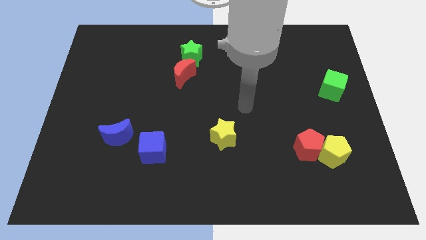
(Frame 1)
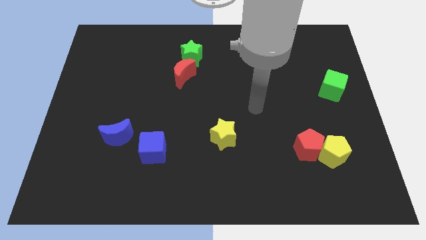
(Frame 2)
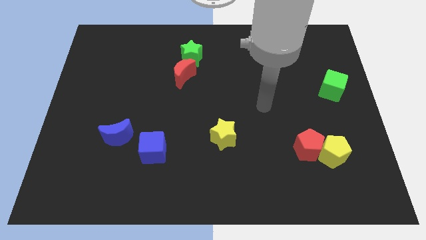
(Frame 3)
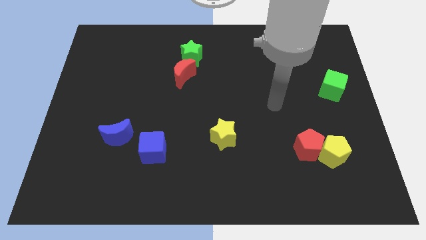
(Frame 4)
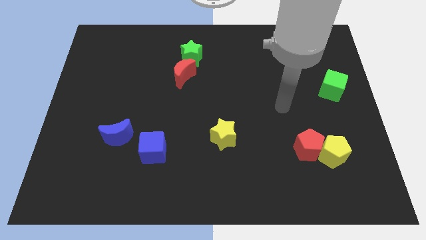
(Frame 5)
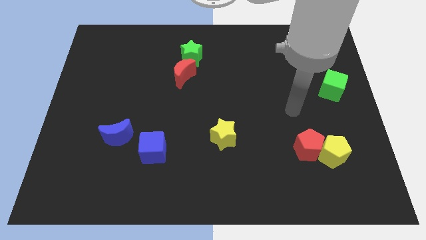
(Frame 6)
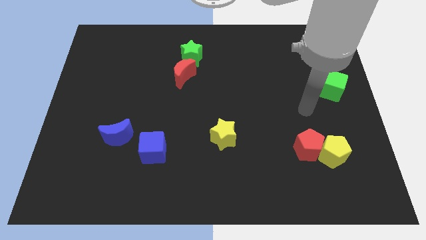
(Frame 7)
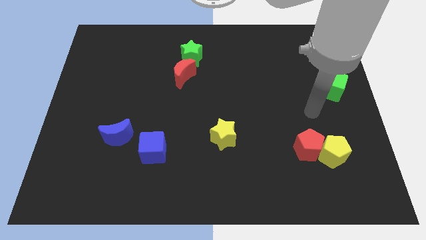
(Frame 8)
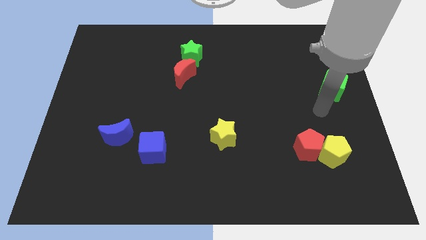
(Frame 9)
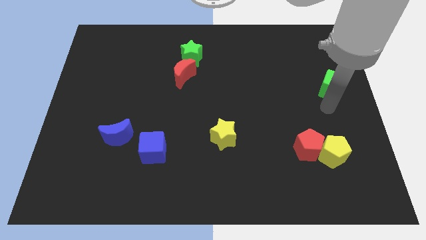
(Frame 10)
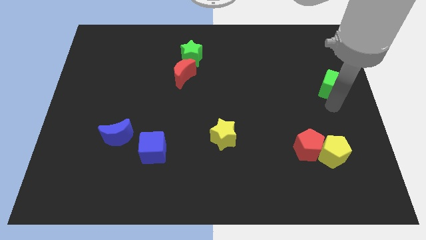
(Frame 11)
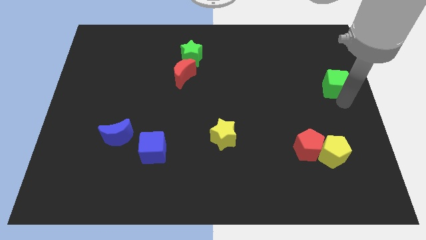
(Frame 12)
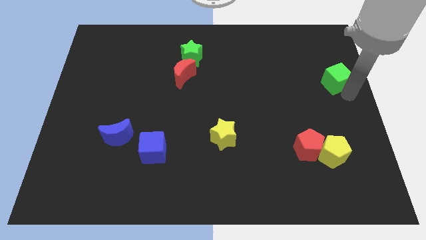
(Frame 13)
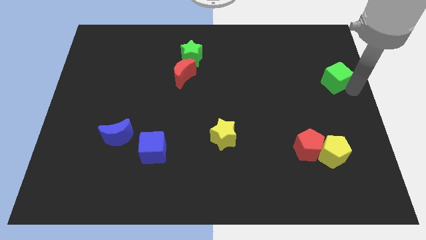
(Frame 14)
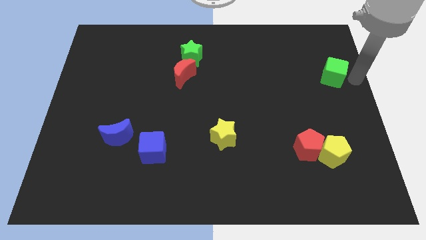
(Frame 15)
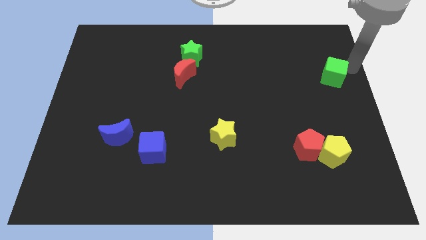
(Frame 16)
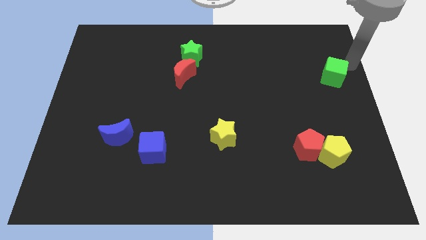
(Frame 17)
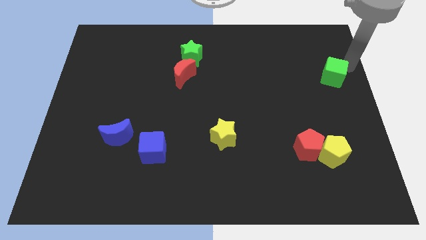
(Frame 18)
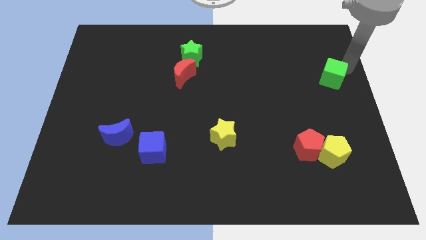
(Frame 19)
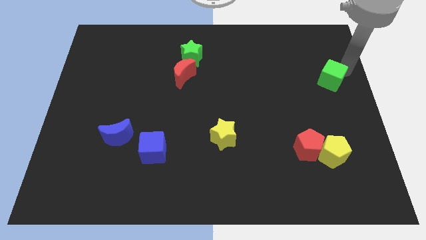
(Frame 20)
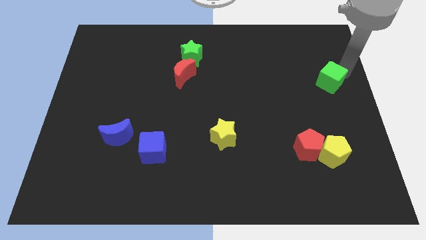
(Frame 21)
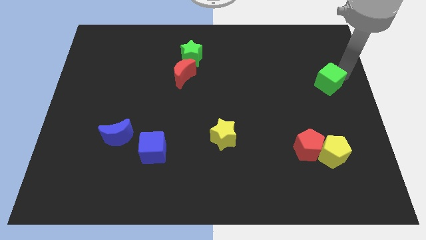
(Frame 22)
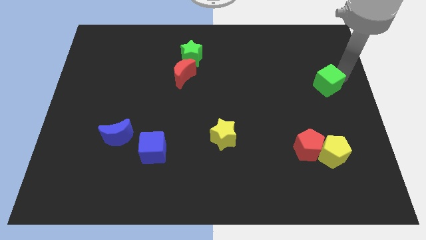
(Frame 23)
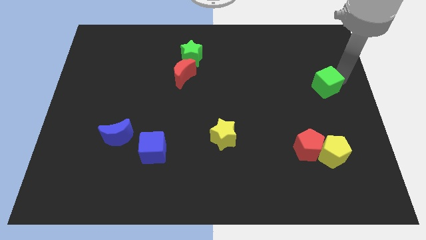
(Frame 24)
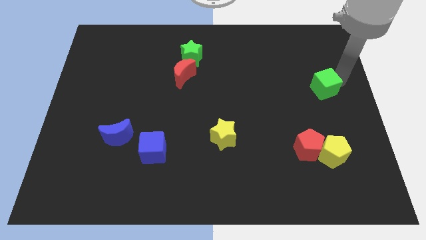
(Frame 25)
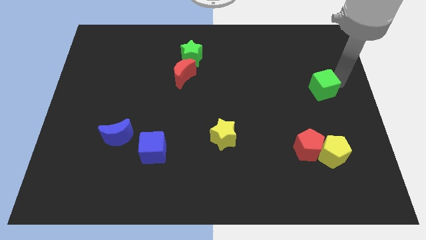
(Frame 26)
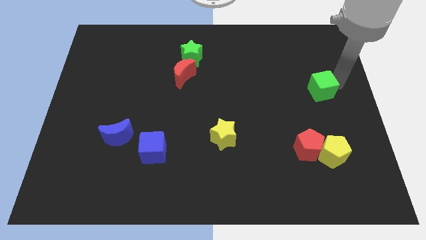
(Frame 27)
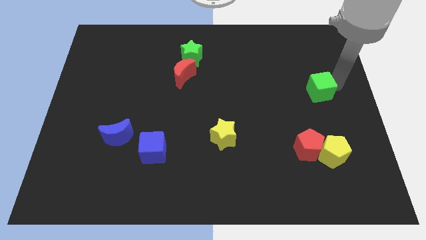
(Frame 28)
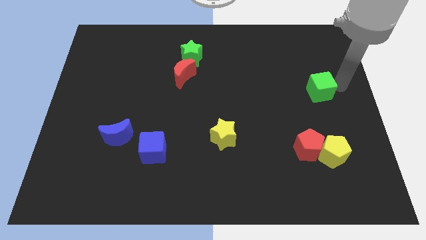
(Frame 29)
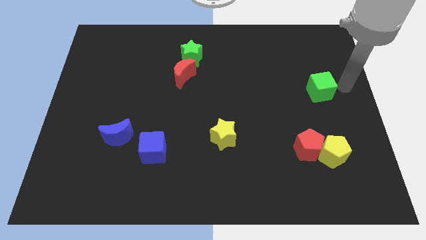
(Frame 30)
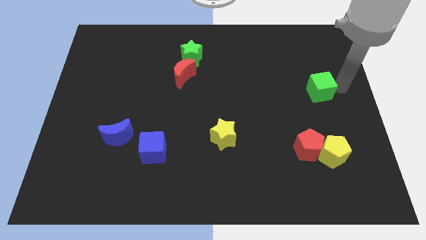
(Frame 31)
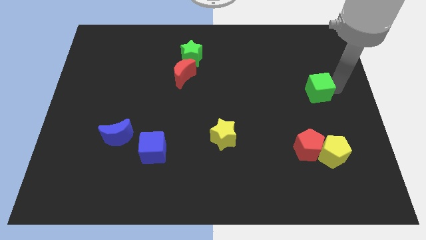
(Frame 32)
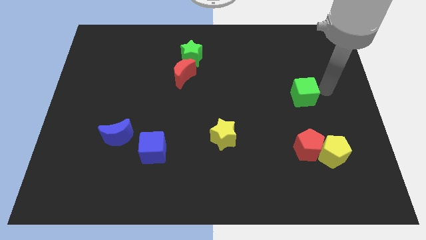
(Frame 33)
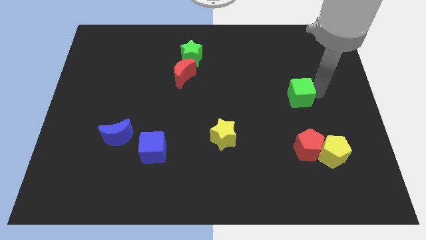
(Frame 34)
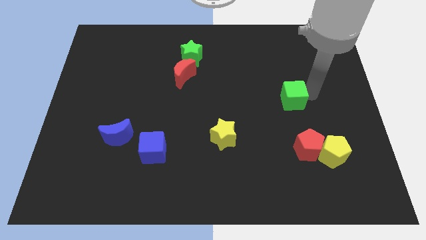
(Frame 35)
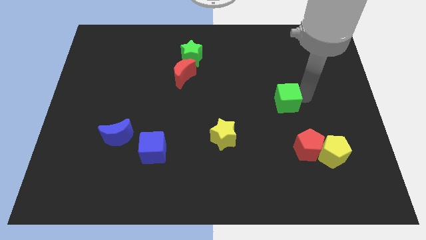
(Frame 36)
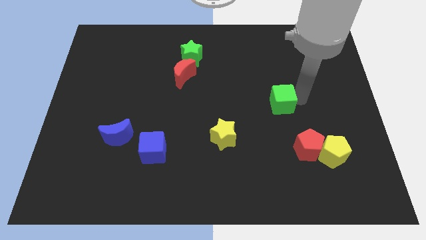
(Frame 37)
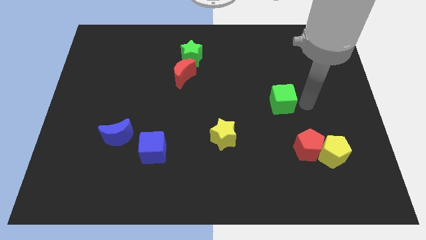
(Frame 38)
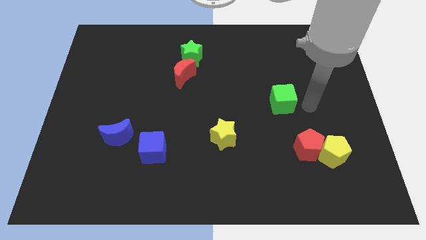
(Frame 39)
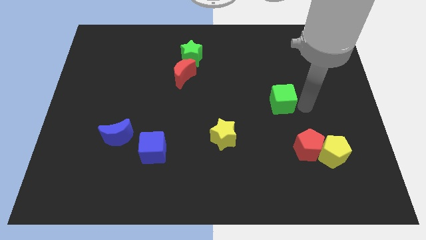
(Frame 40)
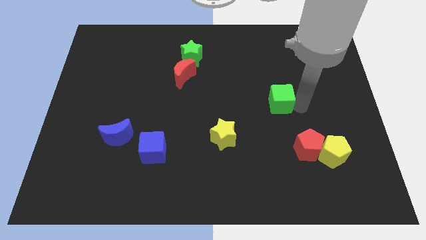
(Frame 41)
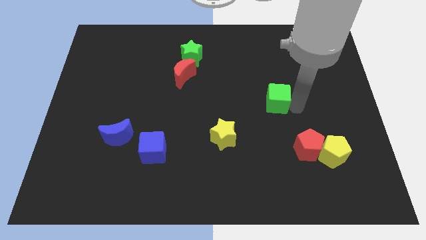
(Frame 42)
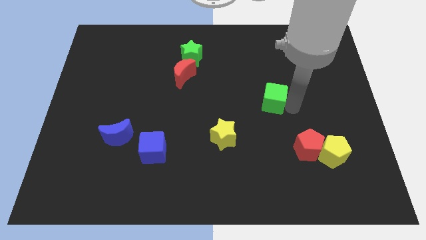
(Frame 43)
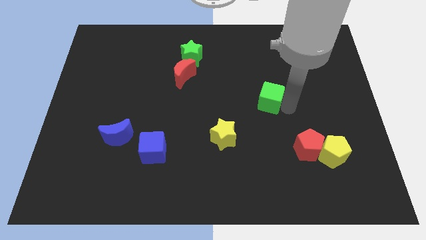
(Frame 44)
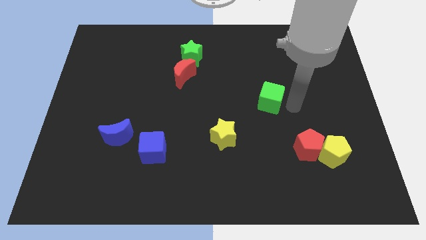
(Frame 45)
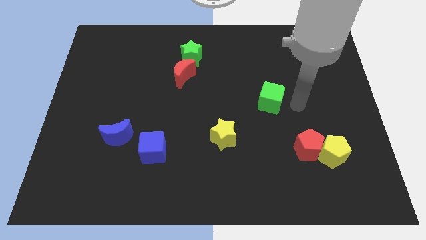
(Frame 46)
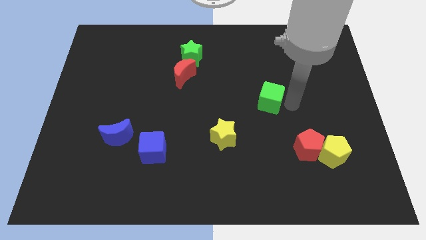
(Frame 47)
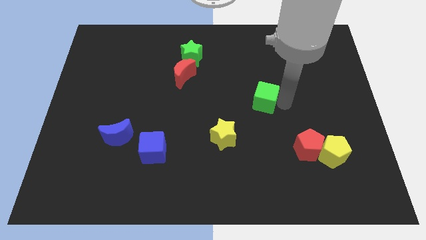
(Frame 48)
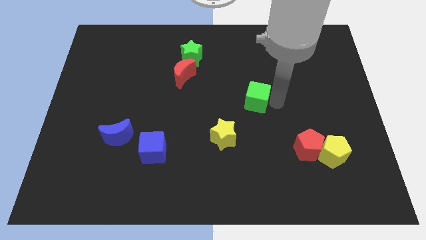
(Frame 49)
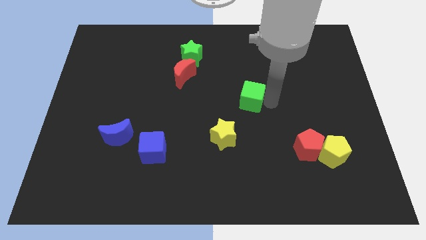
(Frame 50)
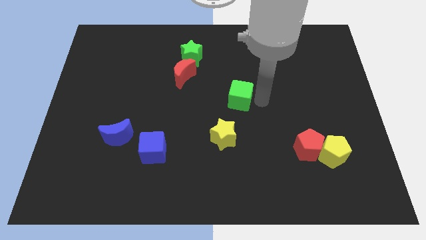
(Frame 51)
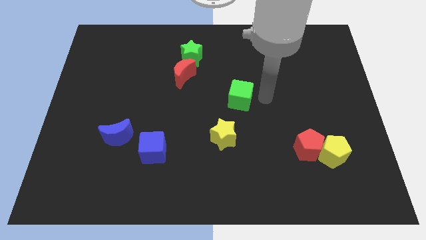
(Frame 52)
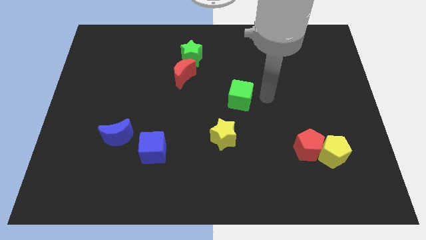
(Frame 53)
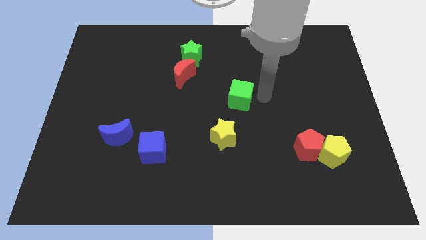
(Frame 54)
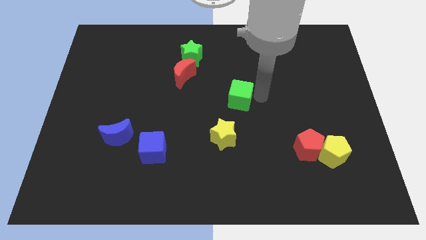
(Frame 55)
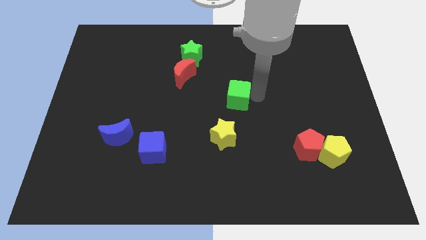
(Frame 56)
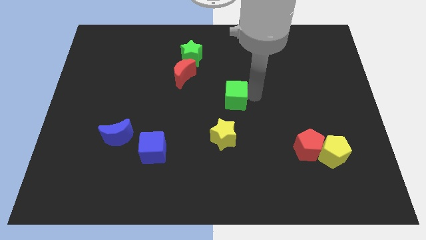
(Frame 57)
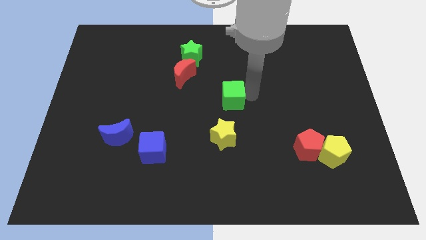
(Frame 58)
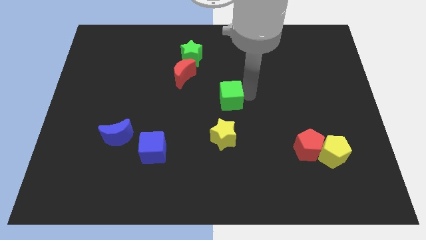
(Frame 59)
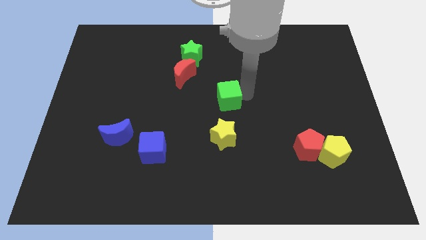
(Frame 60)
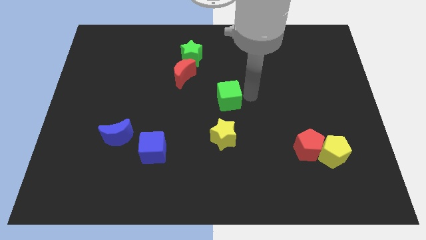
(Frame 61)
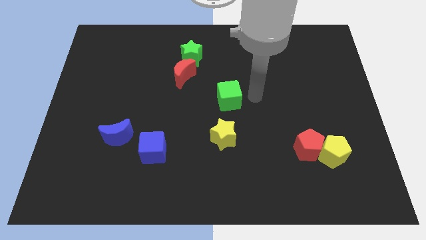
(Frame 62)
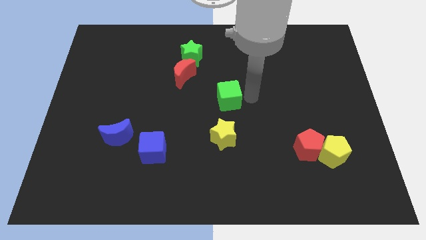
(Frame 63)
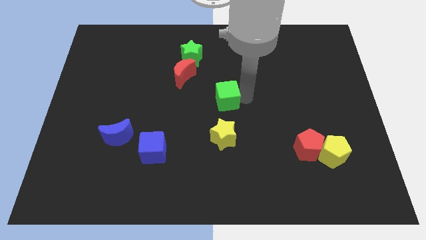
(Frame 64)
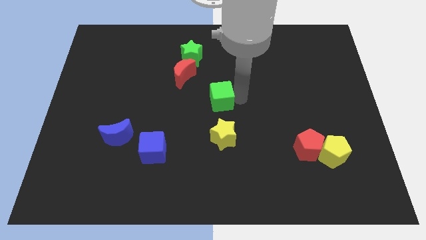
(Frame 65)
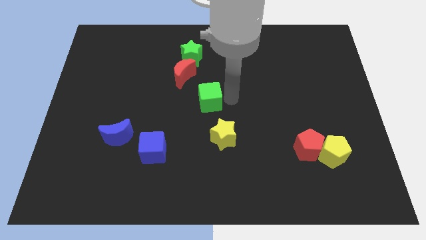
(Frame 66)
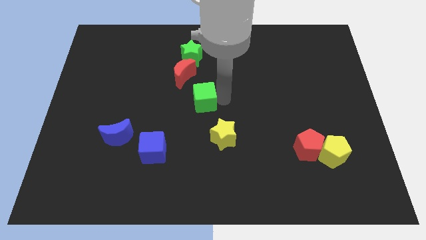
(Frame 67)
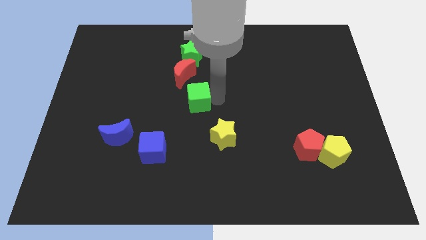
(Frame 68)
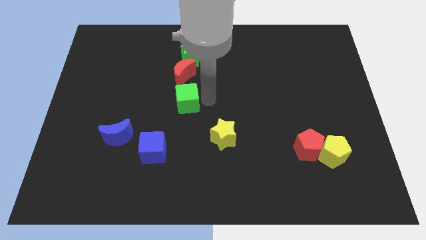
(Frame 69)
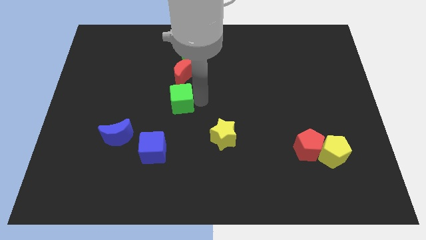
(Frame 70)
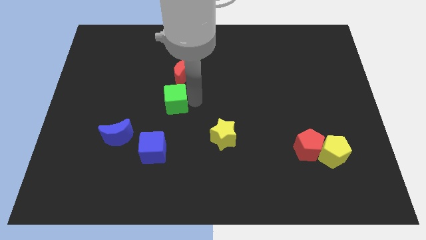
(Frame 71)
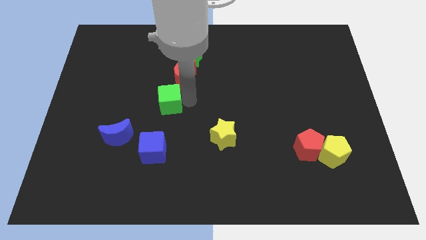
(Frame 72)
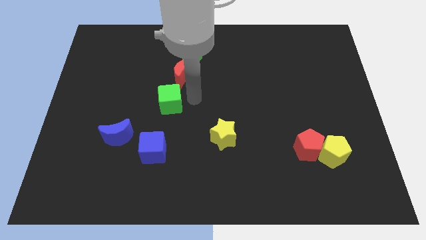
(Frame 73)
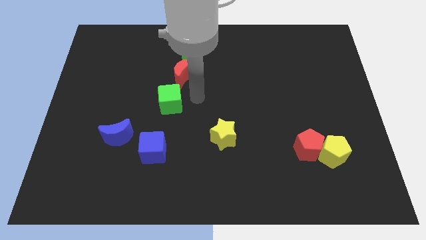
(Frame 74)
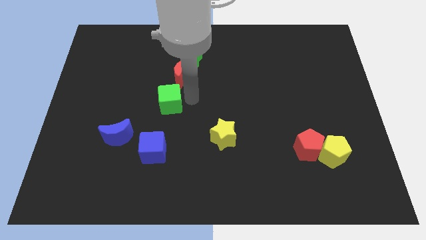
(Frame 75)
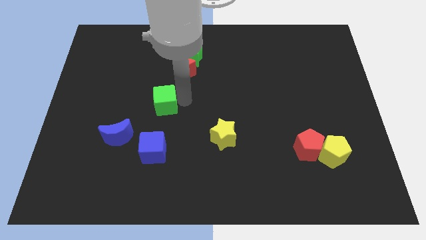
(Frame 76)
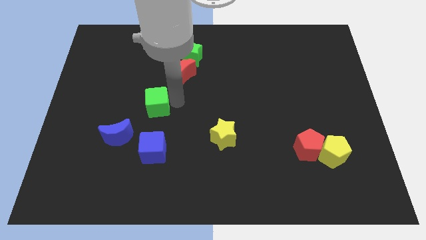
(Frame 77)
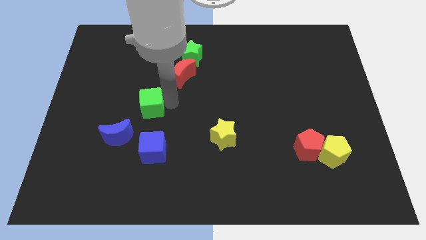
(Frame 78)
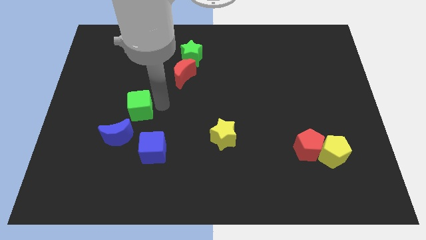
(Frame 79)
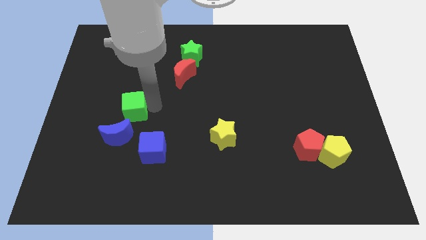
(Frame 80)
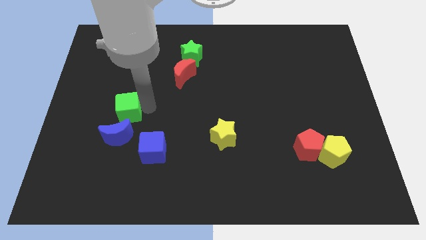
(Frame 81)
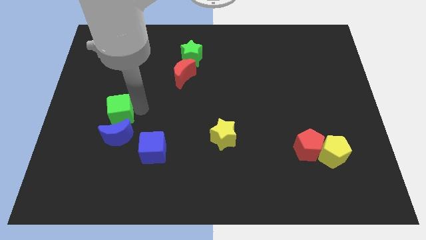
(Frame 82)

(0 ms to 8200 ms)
push the green cube to the top left of the blue moon
